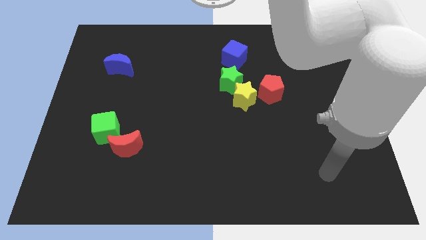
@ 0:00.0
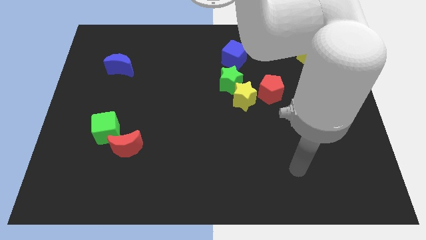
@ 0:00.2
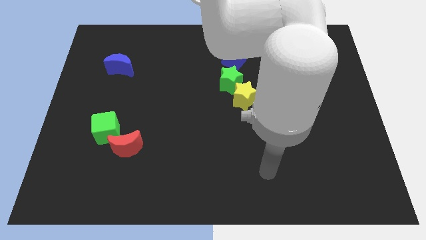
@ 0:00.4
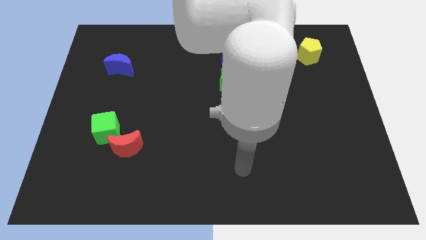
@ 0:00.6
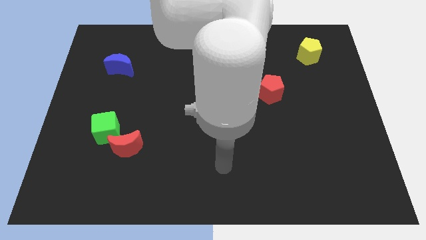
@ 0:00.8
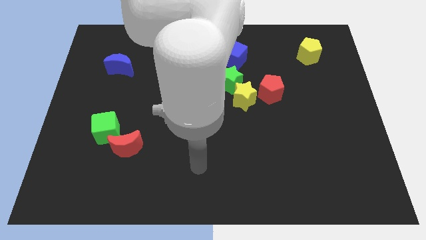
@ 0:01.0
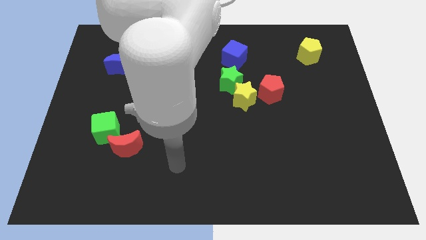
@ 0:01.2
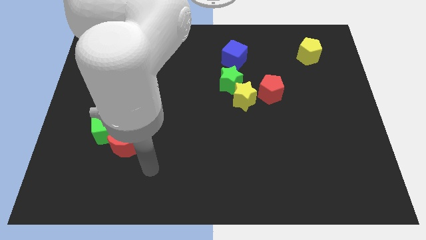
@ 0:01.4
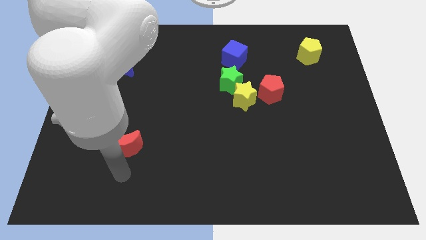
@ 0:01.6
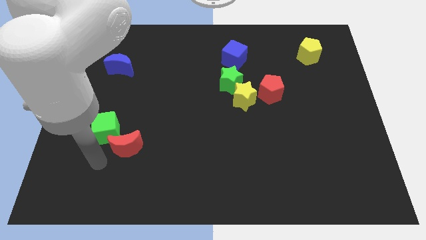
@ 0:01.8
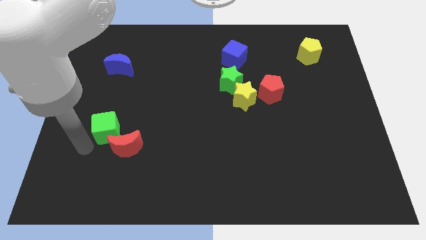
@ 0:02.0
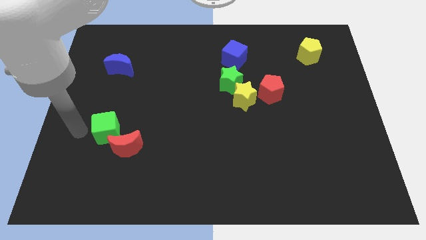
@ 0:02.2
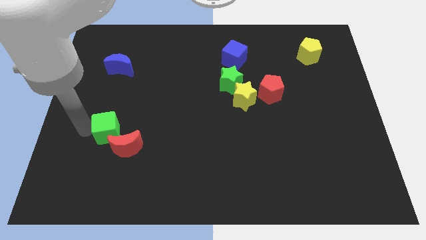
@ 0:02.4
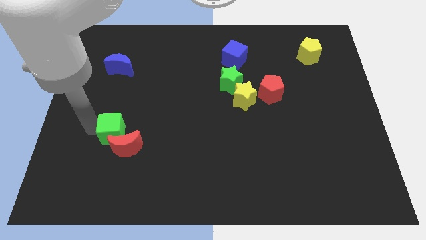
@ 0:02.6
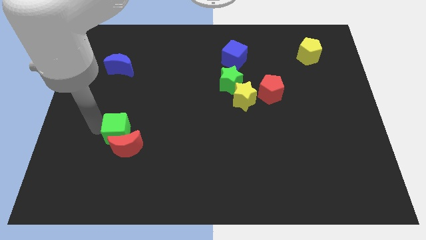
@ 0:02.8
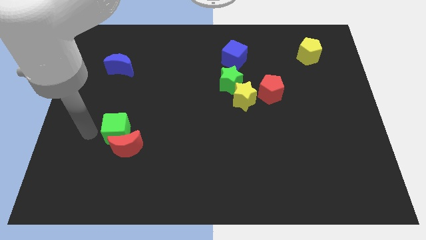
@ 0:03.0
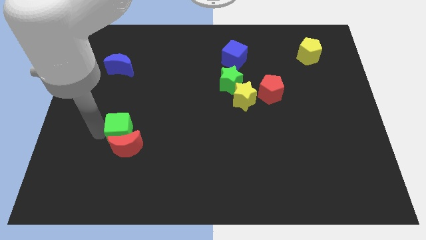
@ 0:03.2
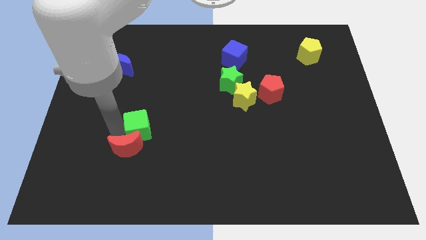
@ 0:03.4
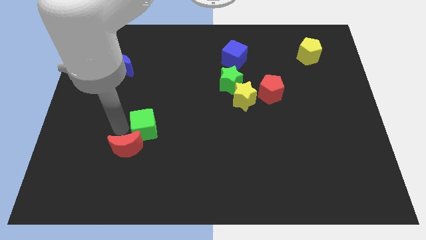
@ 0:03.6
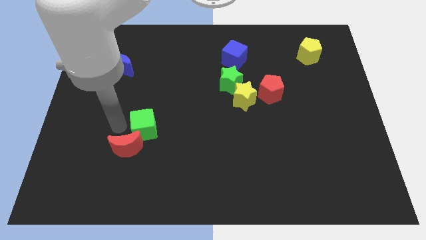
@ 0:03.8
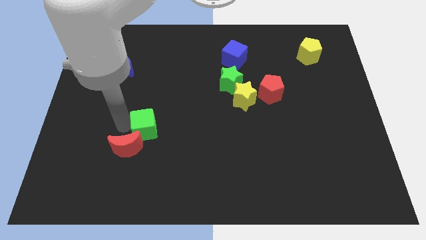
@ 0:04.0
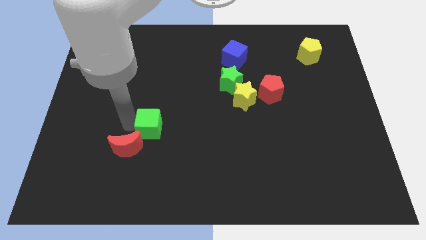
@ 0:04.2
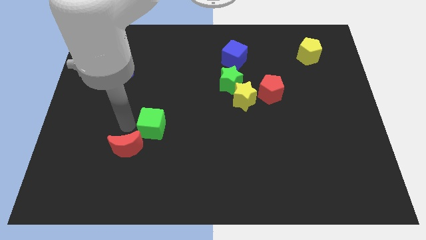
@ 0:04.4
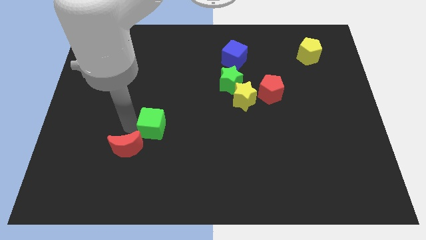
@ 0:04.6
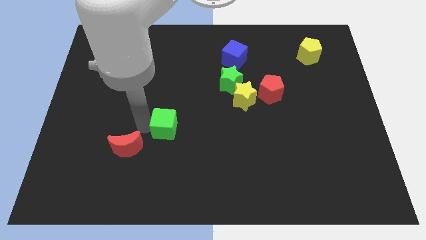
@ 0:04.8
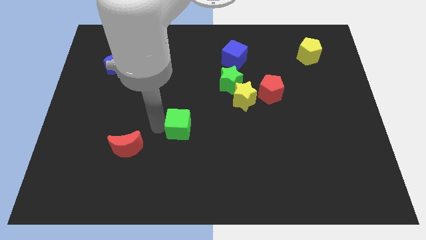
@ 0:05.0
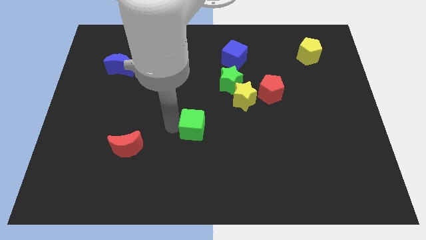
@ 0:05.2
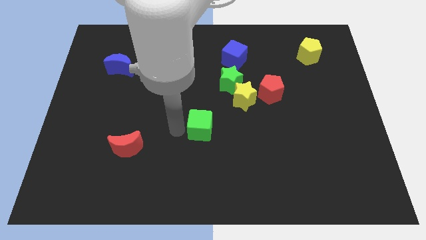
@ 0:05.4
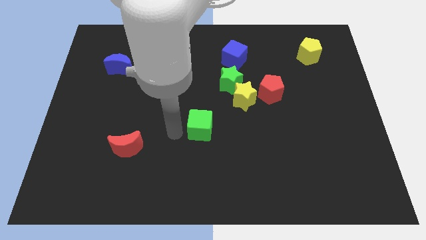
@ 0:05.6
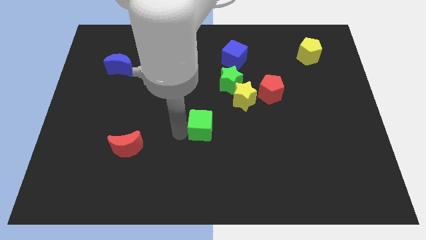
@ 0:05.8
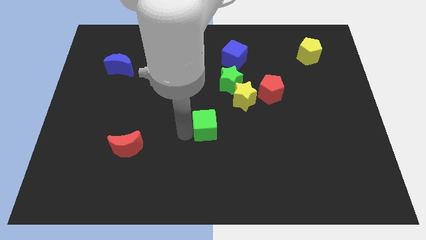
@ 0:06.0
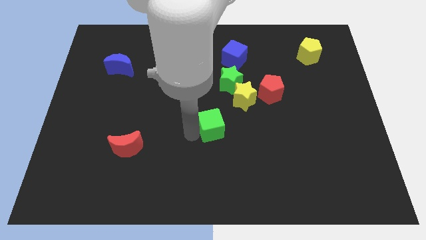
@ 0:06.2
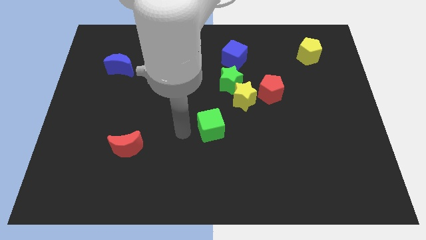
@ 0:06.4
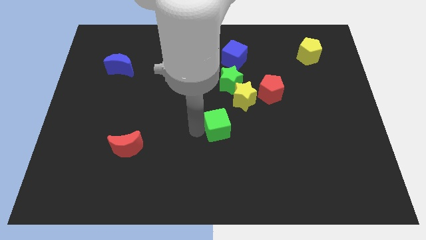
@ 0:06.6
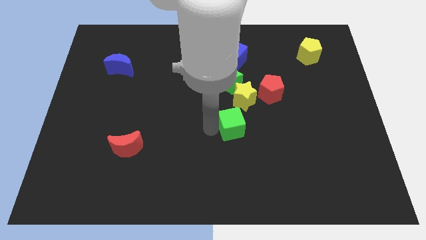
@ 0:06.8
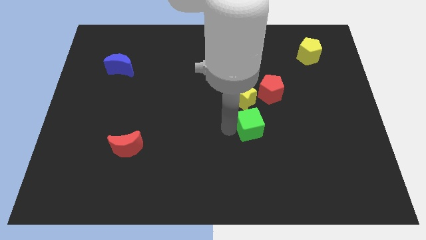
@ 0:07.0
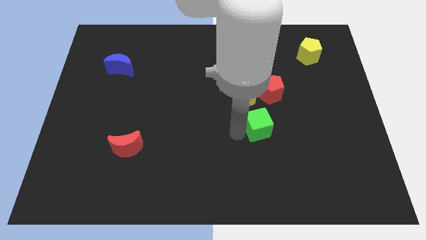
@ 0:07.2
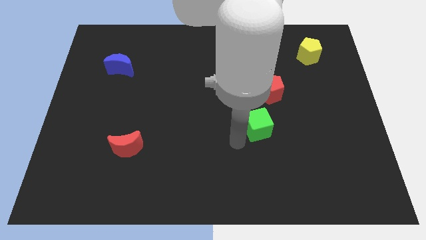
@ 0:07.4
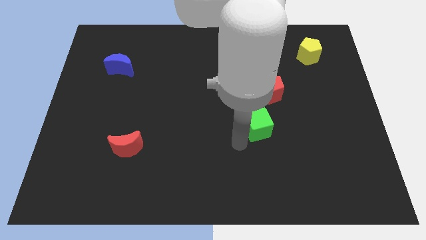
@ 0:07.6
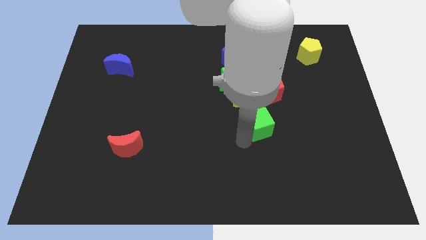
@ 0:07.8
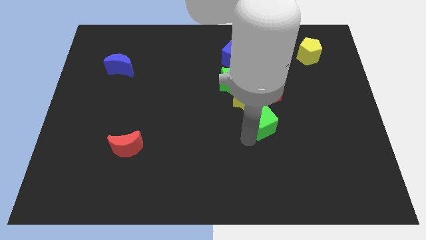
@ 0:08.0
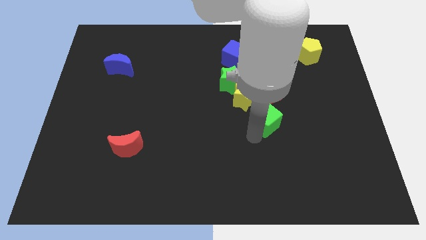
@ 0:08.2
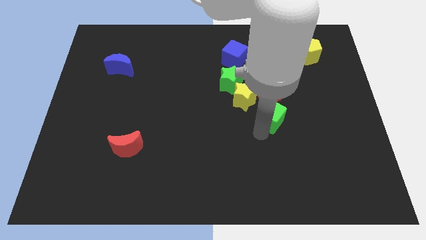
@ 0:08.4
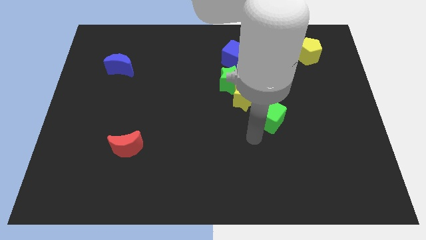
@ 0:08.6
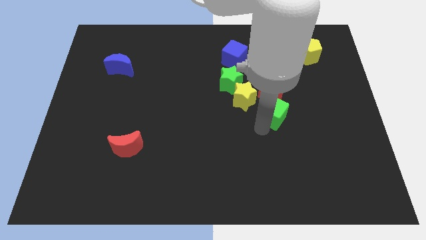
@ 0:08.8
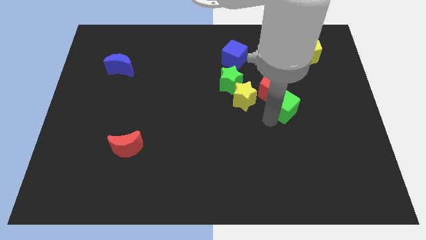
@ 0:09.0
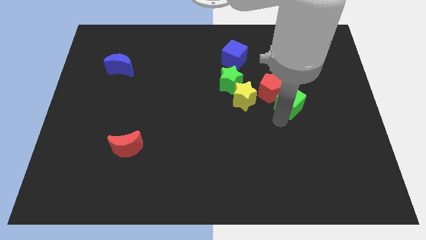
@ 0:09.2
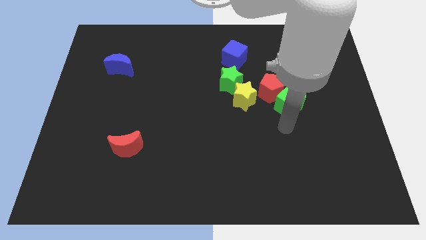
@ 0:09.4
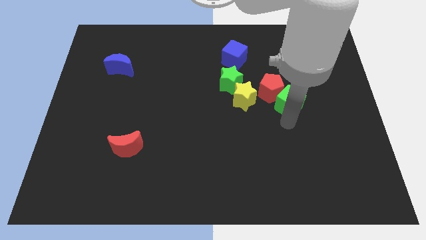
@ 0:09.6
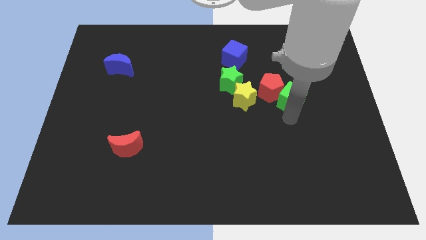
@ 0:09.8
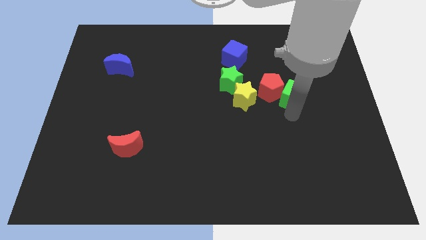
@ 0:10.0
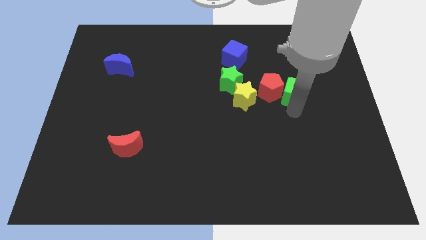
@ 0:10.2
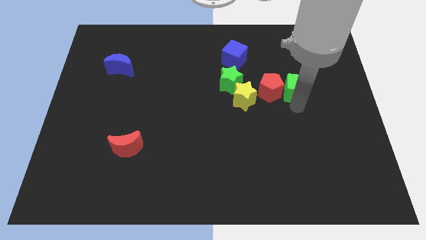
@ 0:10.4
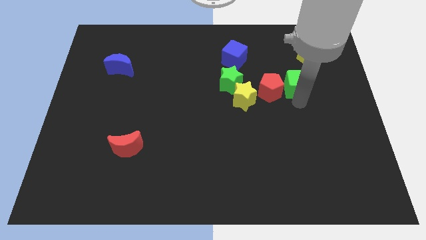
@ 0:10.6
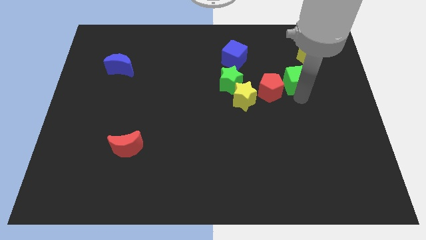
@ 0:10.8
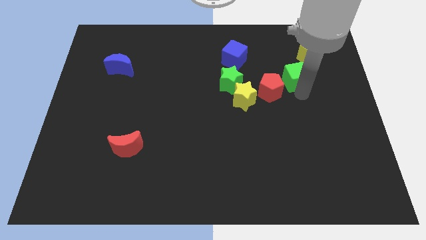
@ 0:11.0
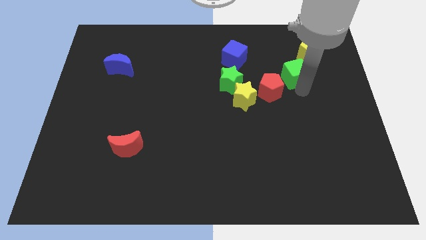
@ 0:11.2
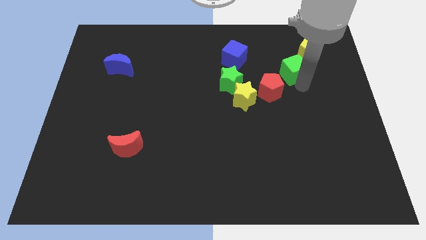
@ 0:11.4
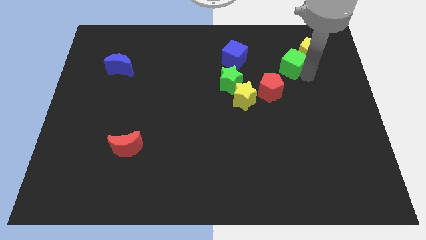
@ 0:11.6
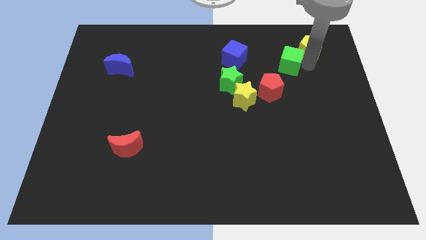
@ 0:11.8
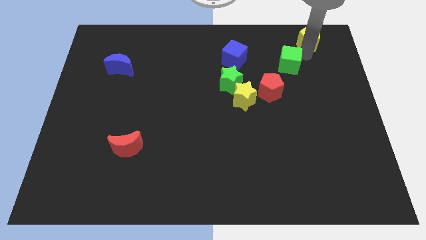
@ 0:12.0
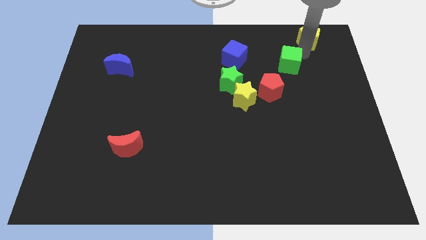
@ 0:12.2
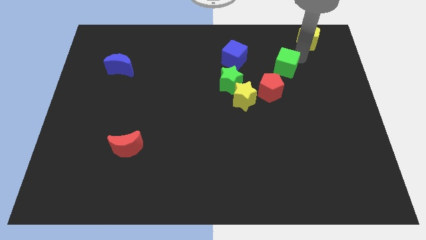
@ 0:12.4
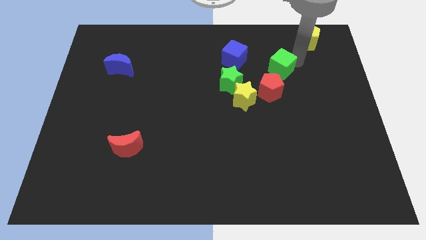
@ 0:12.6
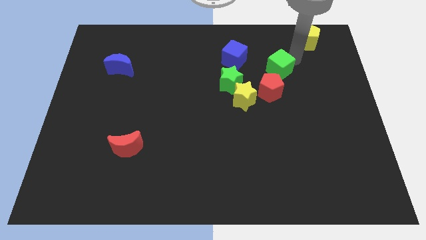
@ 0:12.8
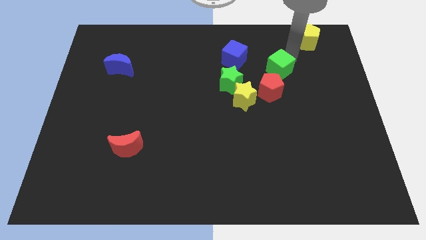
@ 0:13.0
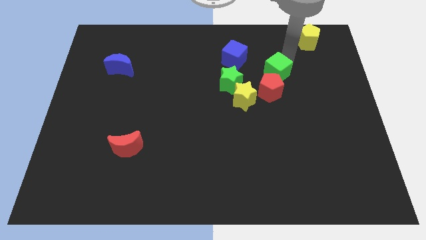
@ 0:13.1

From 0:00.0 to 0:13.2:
move the green cube to the top right side of the yellow star

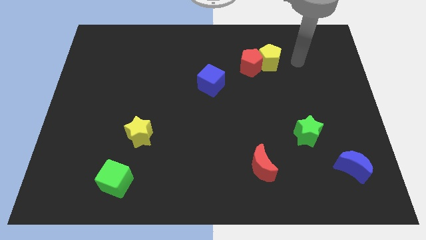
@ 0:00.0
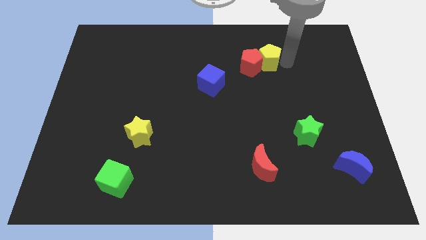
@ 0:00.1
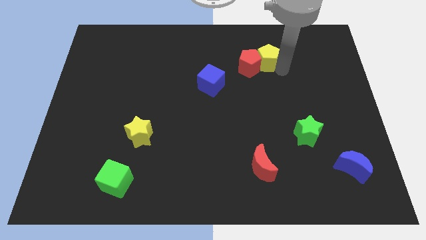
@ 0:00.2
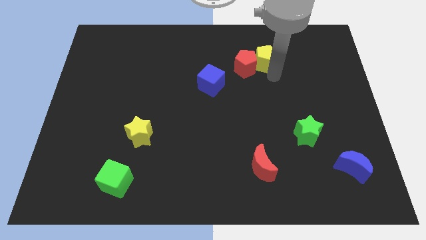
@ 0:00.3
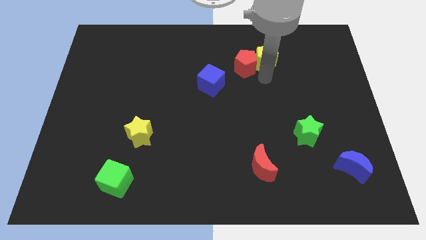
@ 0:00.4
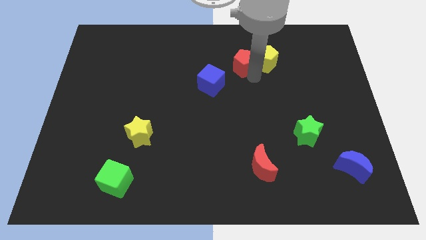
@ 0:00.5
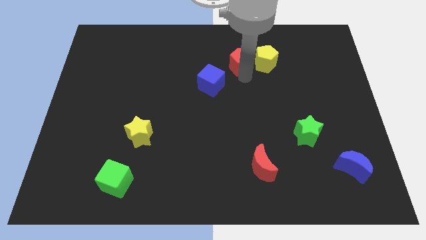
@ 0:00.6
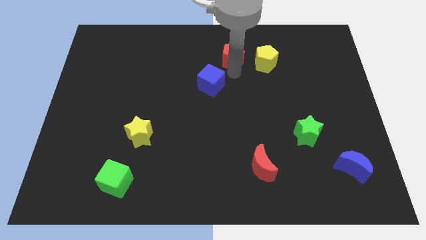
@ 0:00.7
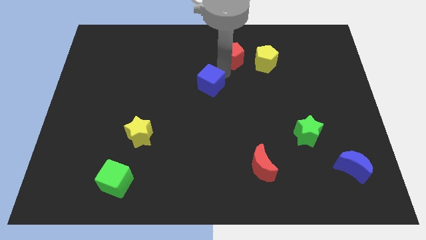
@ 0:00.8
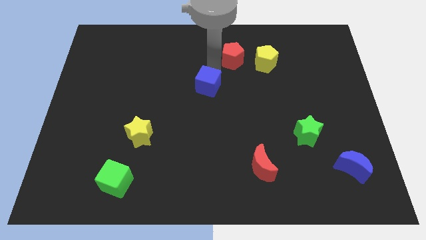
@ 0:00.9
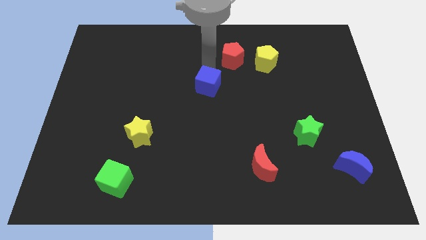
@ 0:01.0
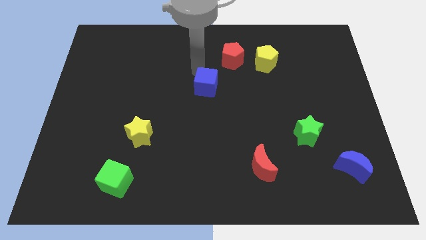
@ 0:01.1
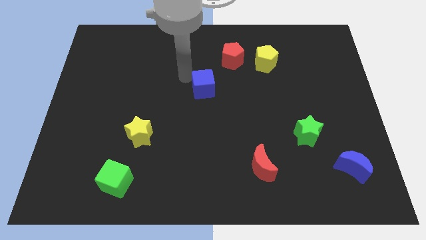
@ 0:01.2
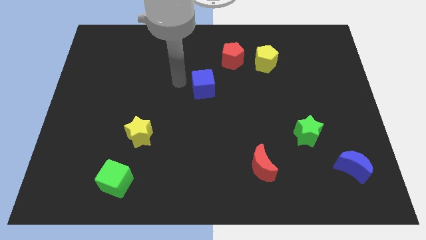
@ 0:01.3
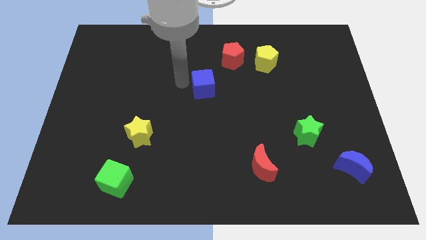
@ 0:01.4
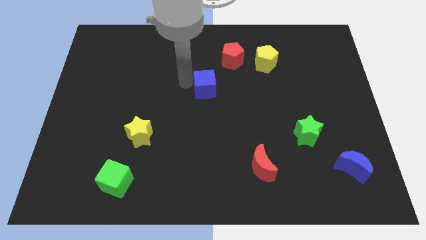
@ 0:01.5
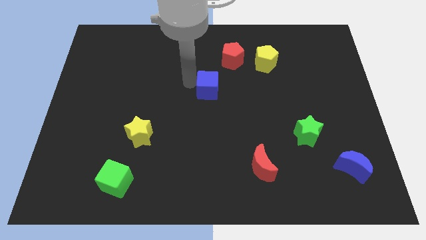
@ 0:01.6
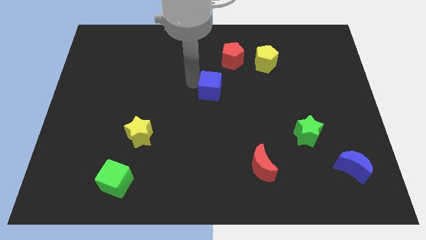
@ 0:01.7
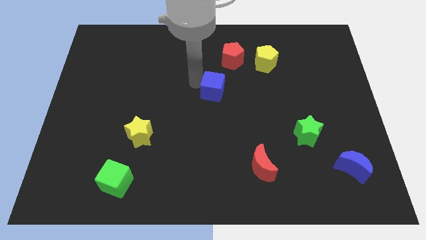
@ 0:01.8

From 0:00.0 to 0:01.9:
slide the blue cube to the bottom side of the red pentagon
